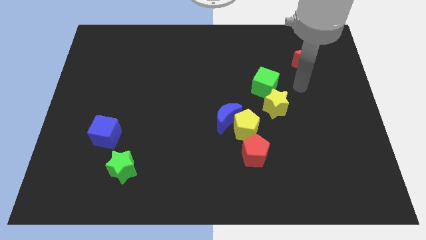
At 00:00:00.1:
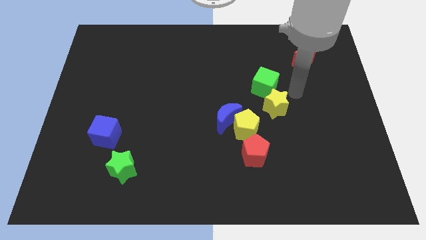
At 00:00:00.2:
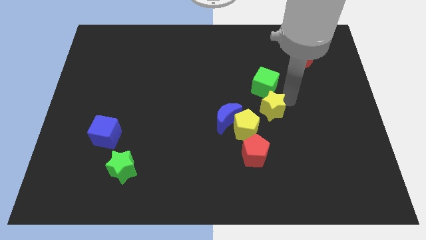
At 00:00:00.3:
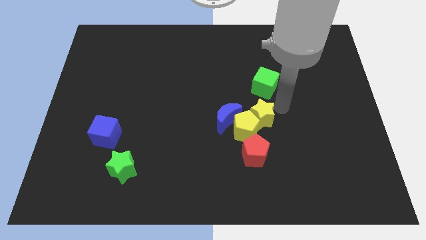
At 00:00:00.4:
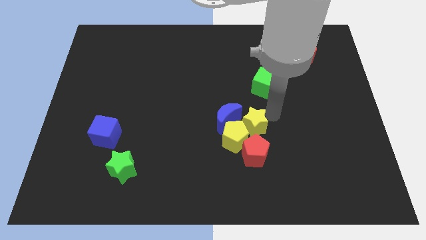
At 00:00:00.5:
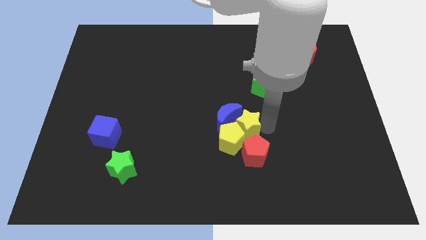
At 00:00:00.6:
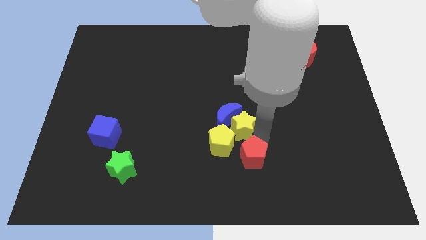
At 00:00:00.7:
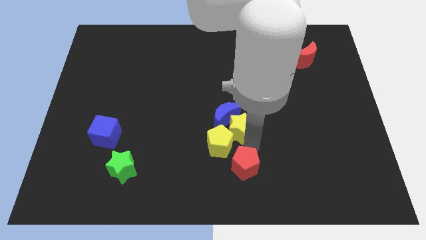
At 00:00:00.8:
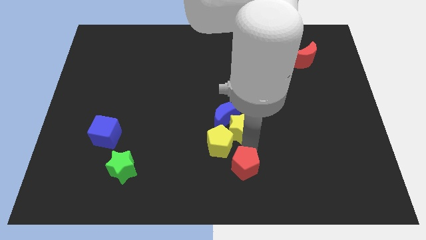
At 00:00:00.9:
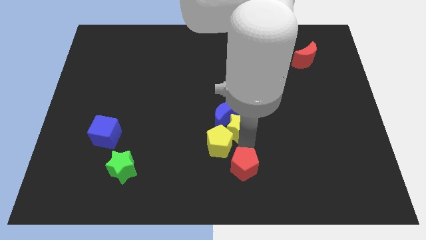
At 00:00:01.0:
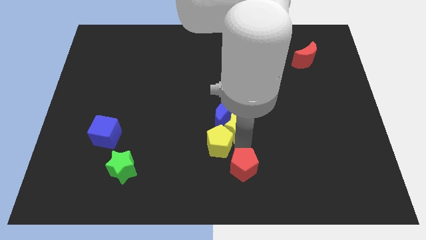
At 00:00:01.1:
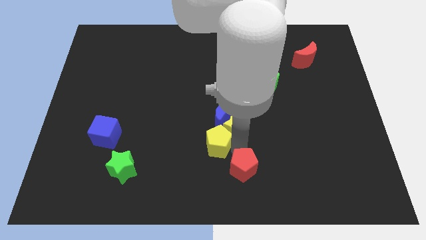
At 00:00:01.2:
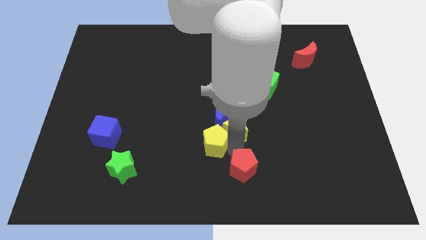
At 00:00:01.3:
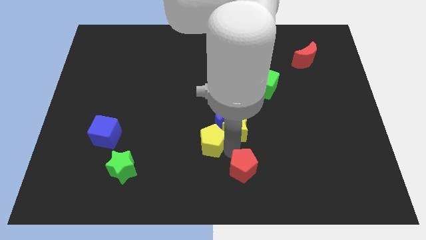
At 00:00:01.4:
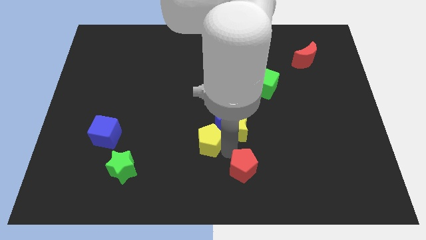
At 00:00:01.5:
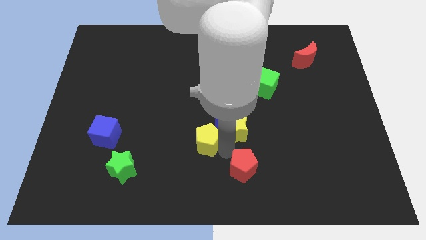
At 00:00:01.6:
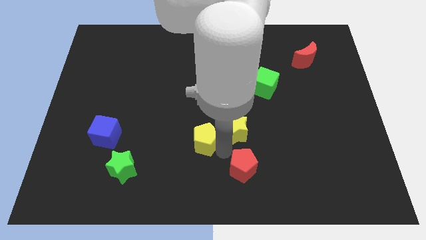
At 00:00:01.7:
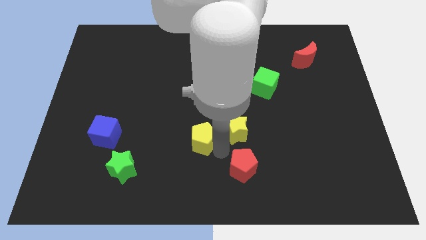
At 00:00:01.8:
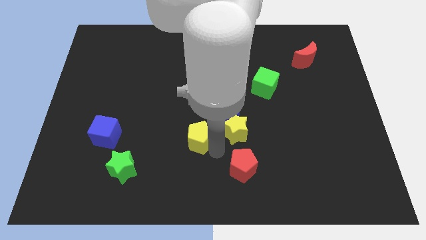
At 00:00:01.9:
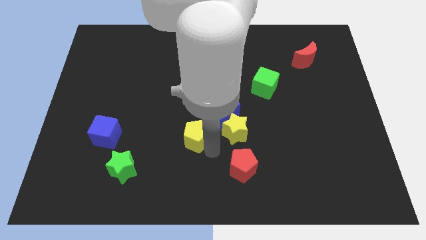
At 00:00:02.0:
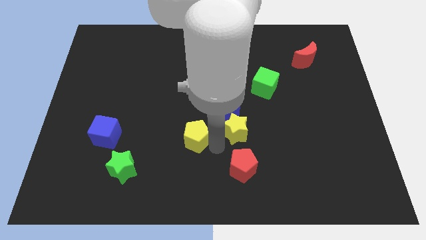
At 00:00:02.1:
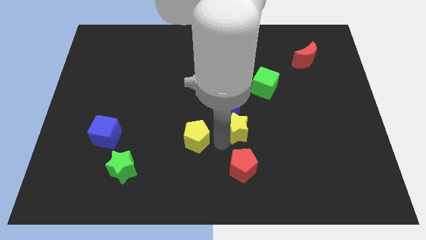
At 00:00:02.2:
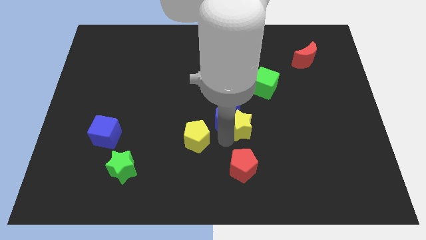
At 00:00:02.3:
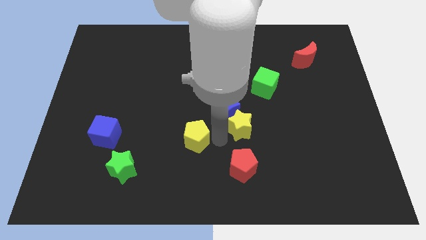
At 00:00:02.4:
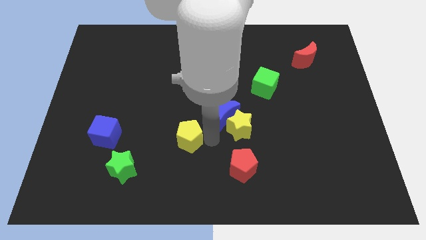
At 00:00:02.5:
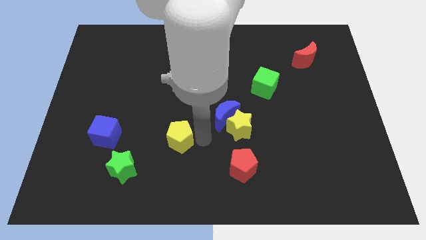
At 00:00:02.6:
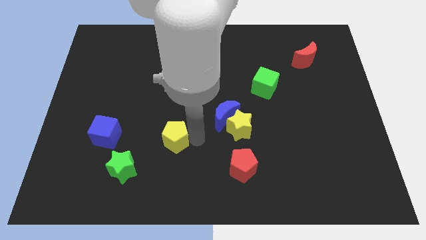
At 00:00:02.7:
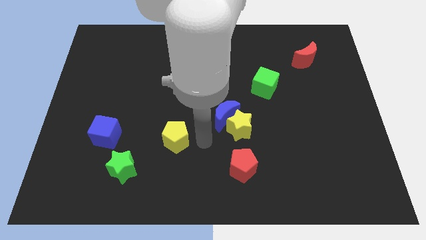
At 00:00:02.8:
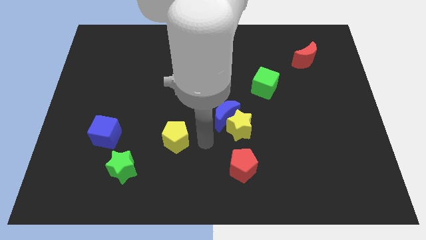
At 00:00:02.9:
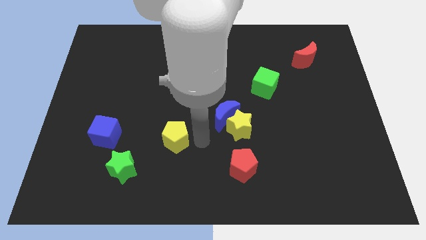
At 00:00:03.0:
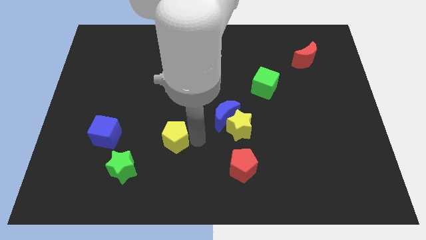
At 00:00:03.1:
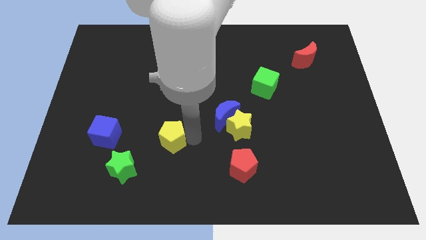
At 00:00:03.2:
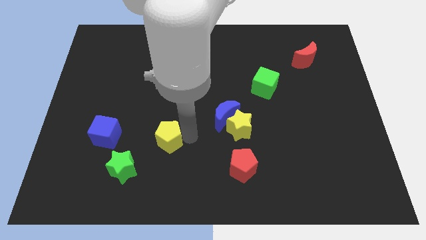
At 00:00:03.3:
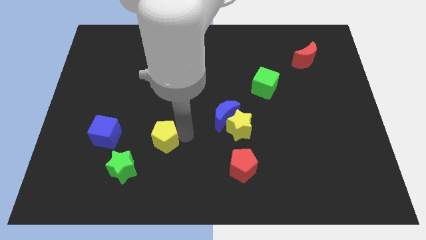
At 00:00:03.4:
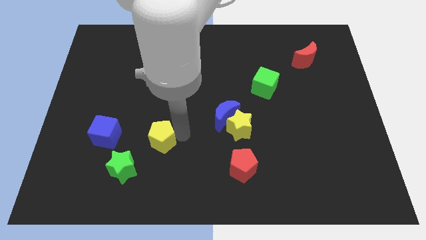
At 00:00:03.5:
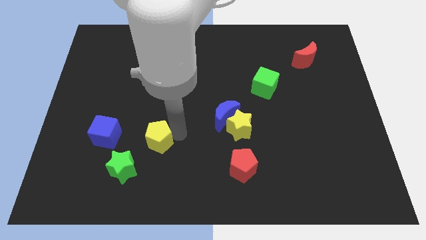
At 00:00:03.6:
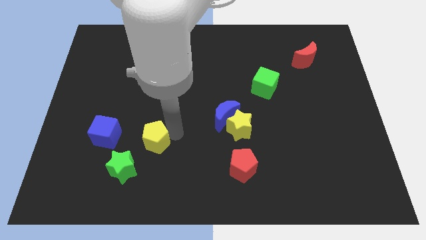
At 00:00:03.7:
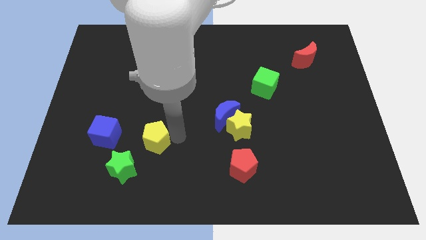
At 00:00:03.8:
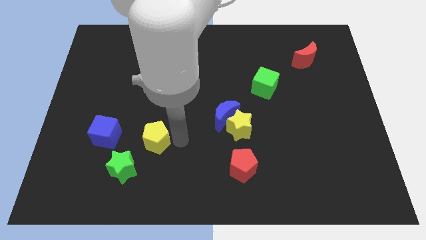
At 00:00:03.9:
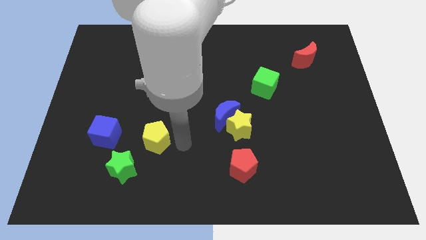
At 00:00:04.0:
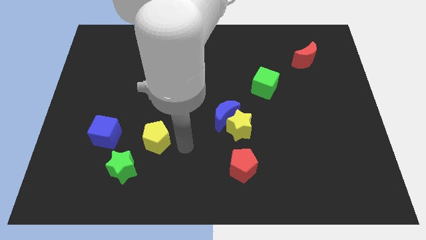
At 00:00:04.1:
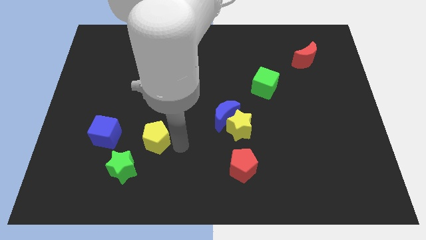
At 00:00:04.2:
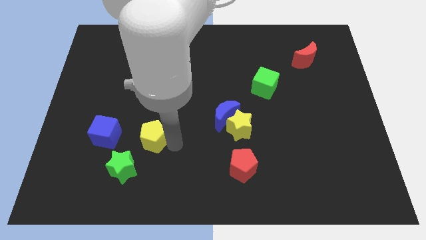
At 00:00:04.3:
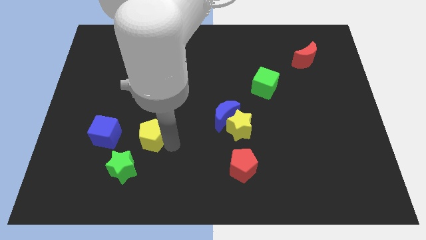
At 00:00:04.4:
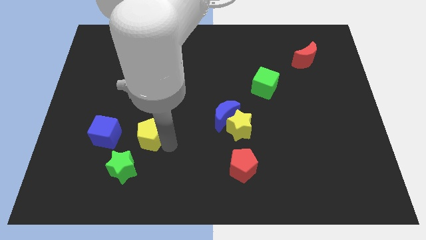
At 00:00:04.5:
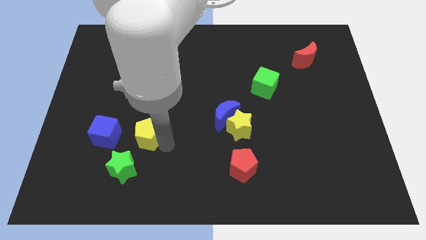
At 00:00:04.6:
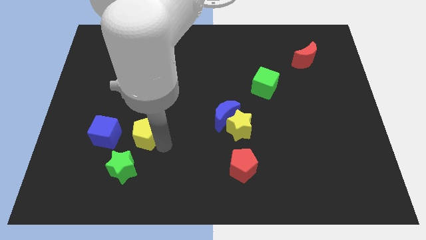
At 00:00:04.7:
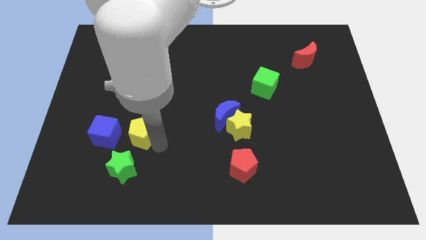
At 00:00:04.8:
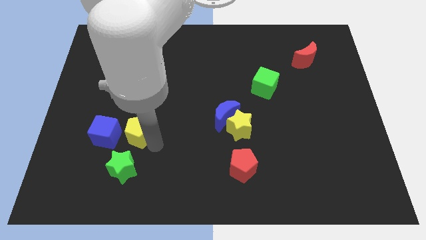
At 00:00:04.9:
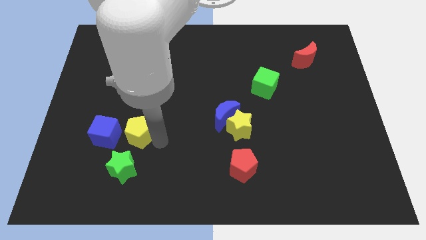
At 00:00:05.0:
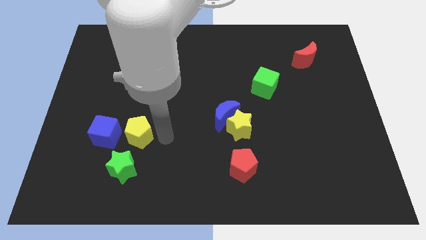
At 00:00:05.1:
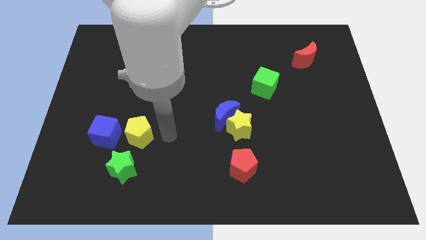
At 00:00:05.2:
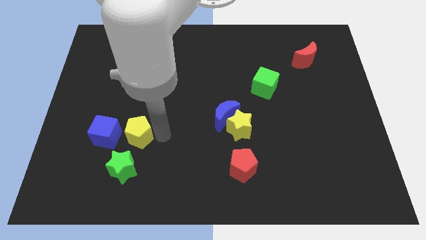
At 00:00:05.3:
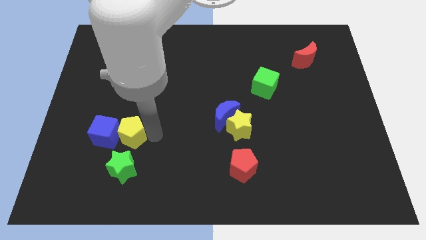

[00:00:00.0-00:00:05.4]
slide the yellow pentagon towards the blue cube

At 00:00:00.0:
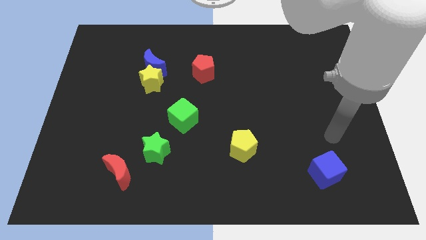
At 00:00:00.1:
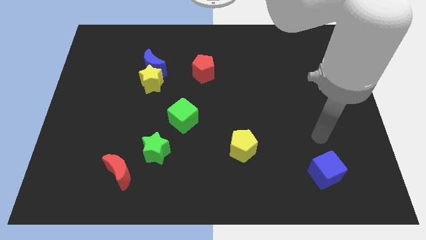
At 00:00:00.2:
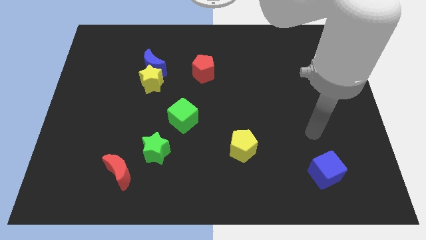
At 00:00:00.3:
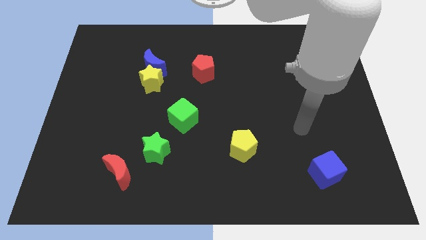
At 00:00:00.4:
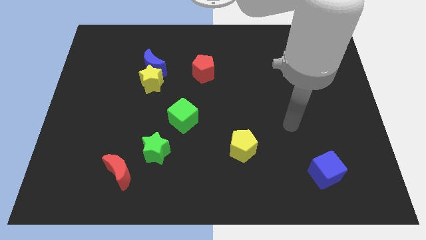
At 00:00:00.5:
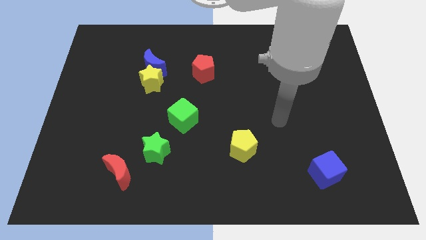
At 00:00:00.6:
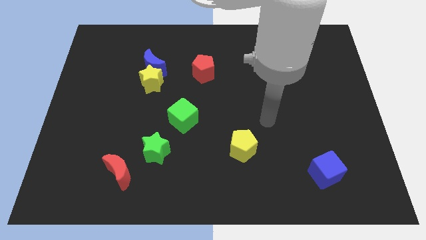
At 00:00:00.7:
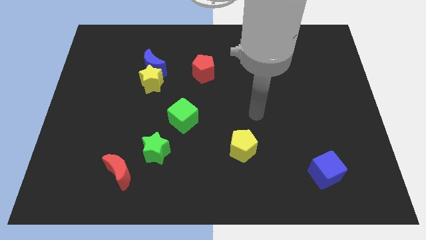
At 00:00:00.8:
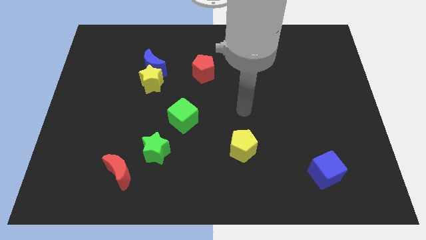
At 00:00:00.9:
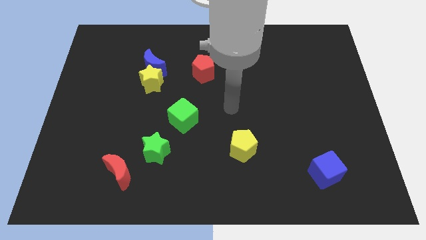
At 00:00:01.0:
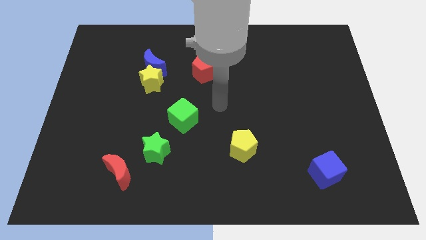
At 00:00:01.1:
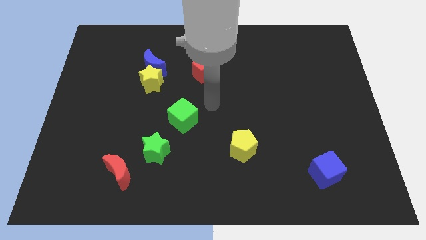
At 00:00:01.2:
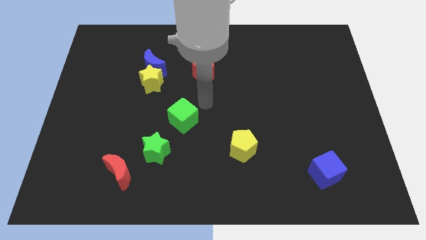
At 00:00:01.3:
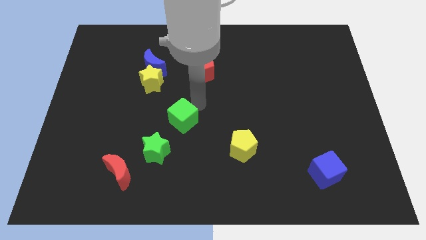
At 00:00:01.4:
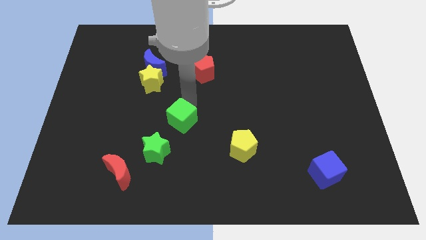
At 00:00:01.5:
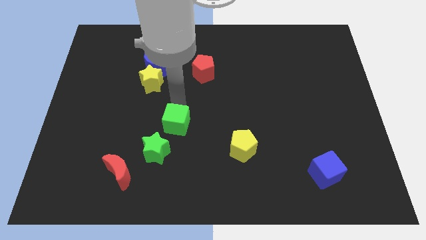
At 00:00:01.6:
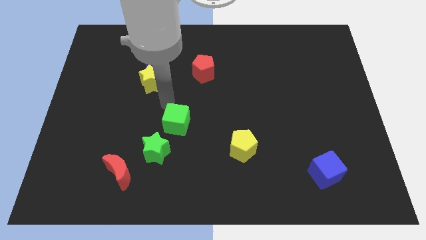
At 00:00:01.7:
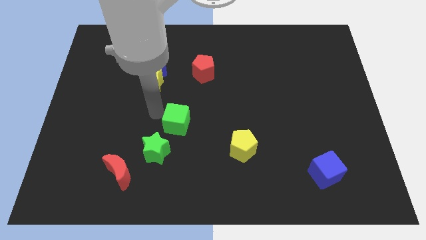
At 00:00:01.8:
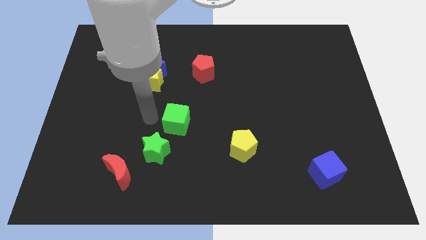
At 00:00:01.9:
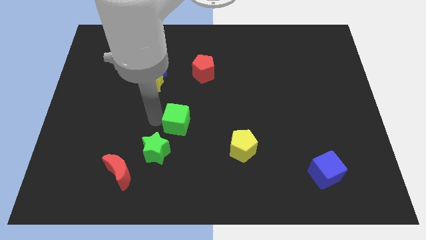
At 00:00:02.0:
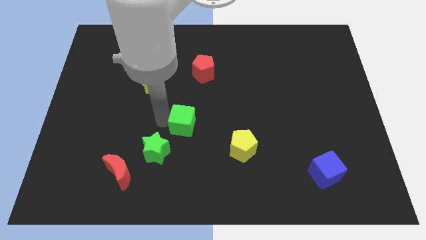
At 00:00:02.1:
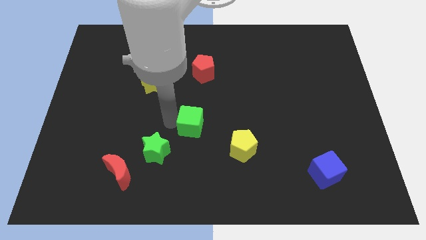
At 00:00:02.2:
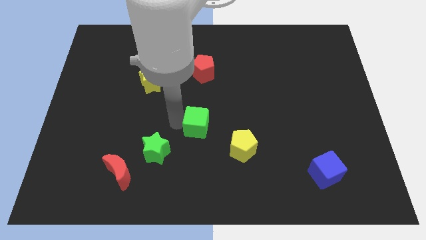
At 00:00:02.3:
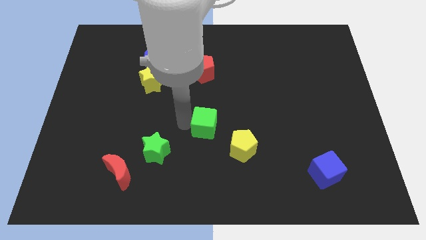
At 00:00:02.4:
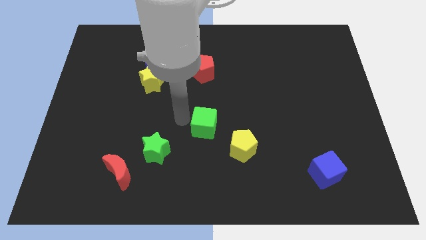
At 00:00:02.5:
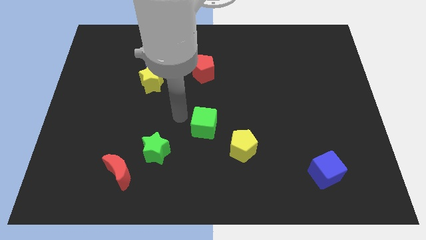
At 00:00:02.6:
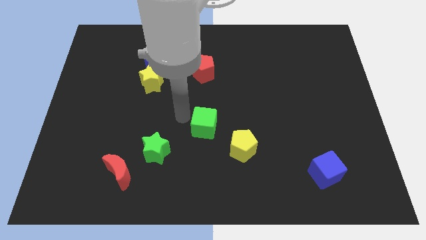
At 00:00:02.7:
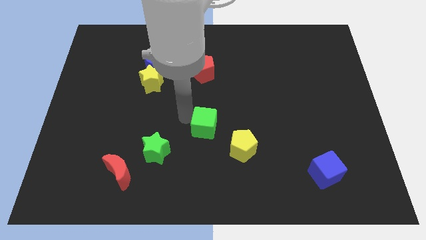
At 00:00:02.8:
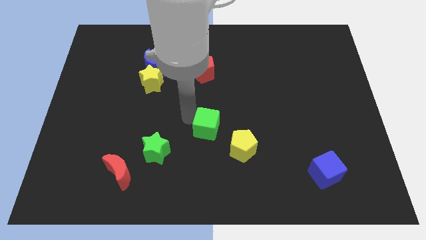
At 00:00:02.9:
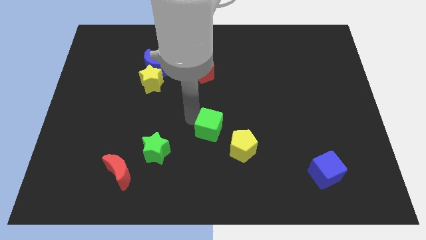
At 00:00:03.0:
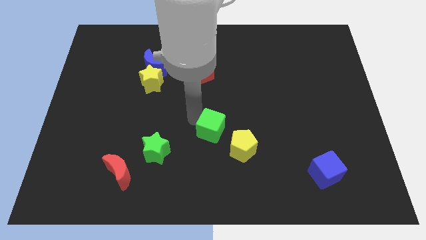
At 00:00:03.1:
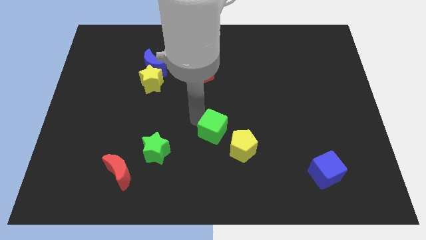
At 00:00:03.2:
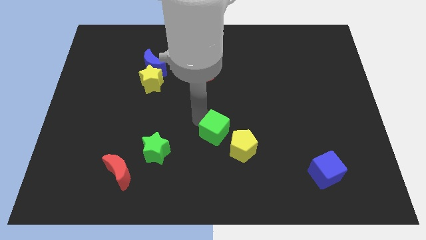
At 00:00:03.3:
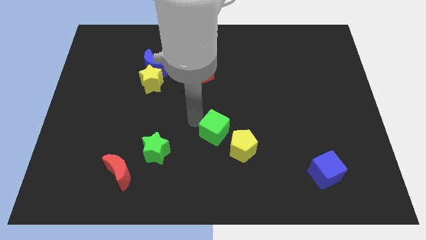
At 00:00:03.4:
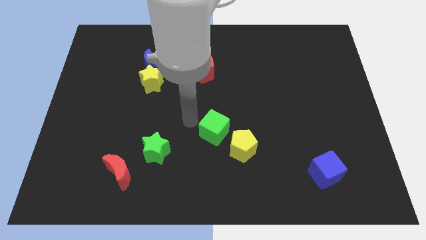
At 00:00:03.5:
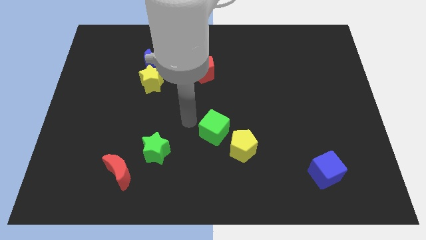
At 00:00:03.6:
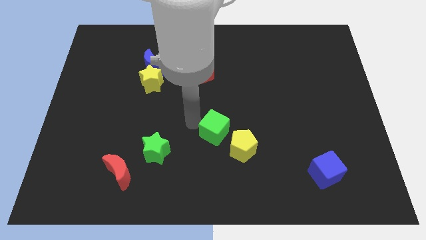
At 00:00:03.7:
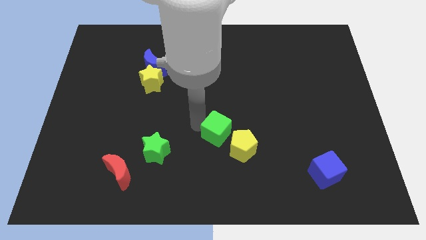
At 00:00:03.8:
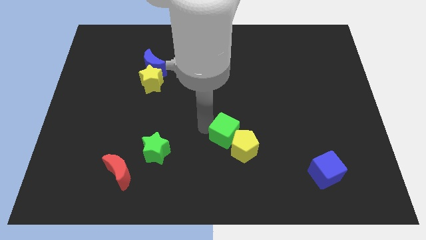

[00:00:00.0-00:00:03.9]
put the green cube next to the yellow pentagon
